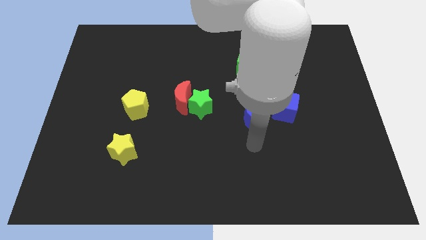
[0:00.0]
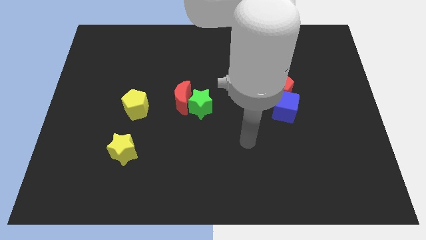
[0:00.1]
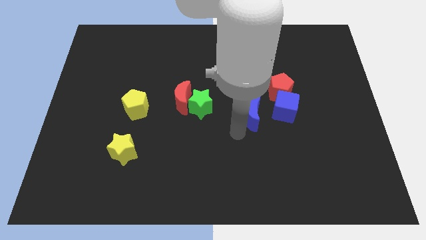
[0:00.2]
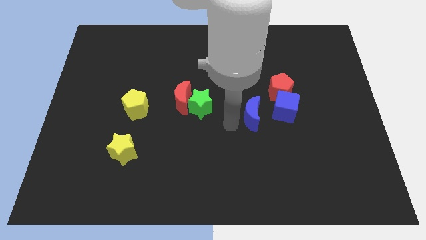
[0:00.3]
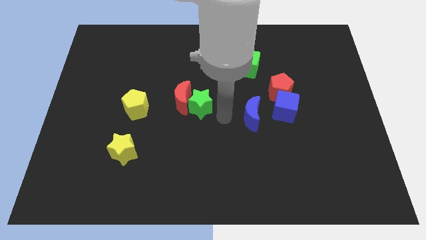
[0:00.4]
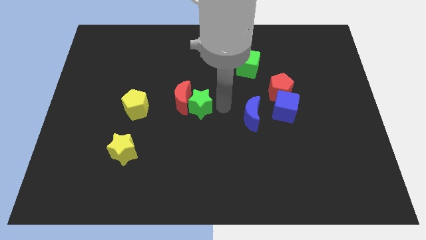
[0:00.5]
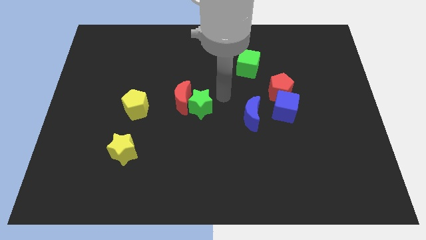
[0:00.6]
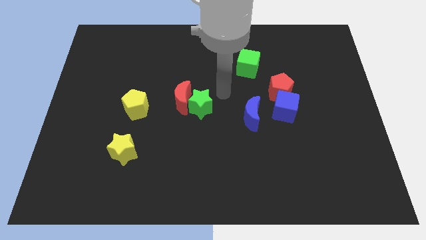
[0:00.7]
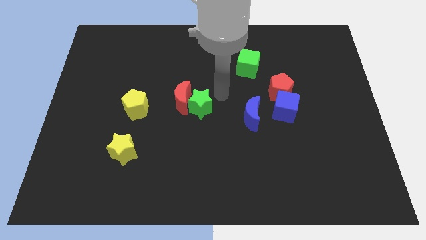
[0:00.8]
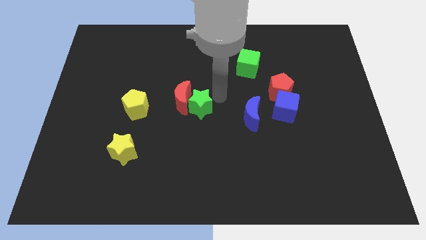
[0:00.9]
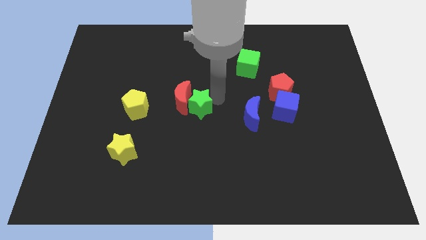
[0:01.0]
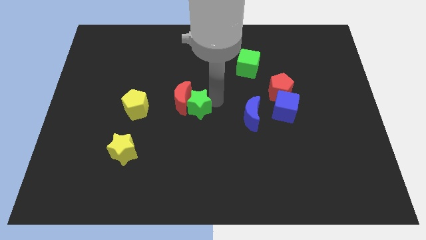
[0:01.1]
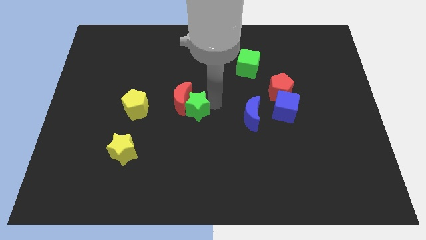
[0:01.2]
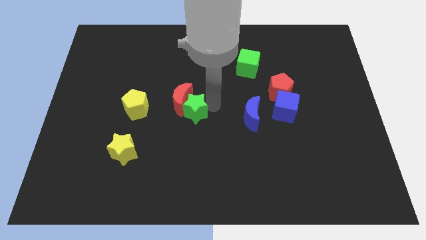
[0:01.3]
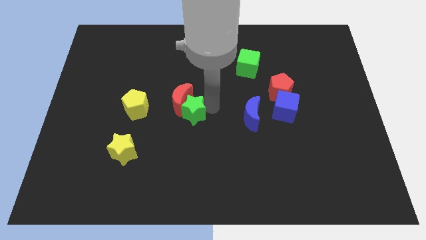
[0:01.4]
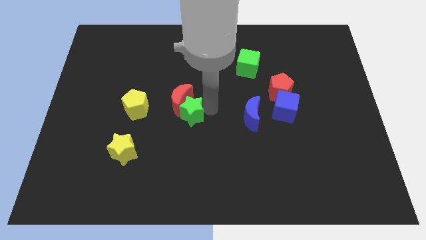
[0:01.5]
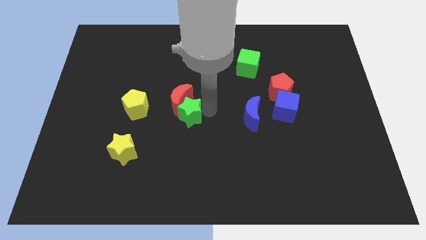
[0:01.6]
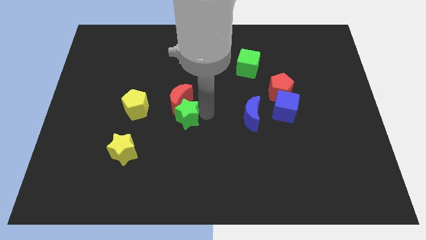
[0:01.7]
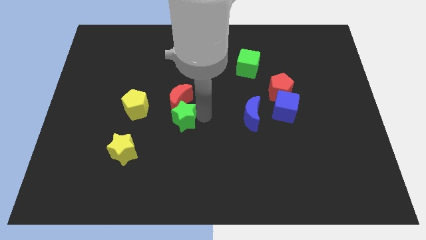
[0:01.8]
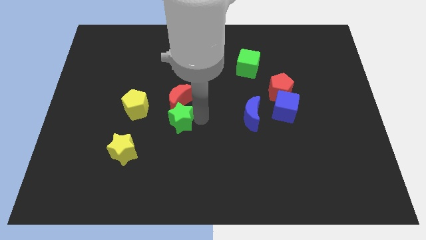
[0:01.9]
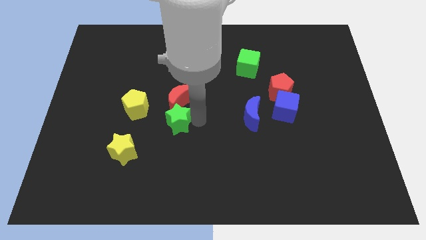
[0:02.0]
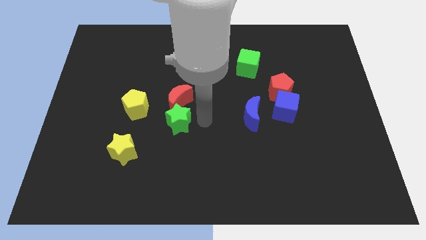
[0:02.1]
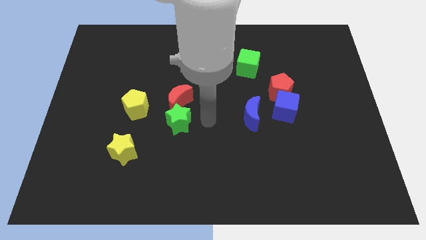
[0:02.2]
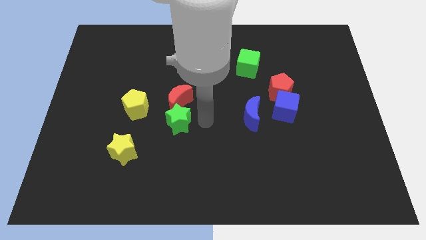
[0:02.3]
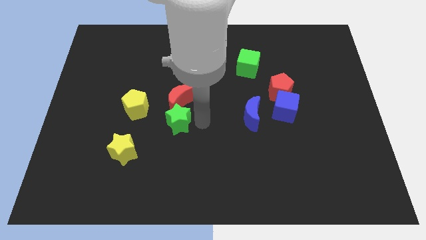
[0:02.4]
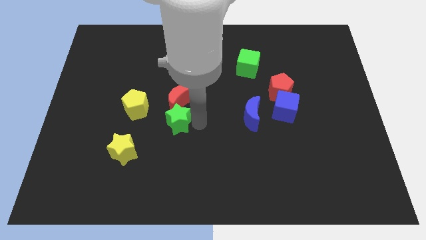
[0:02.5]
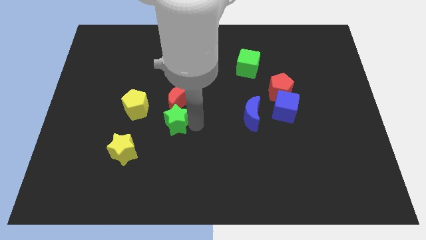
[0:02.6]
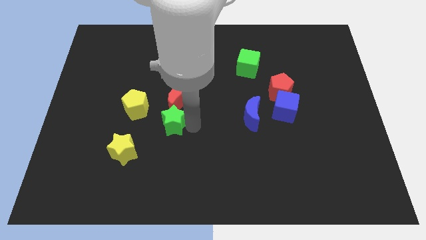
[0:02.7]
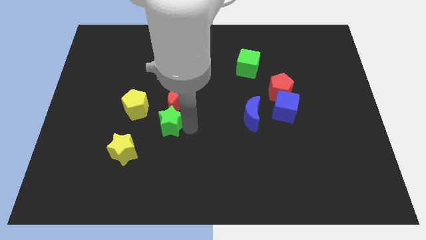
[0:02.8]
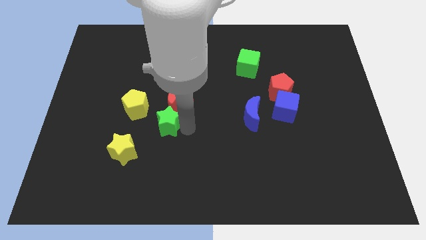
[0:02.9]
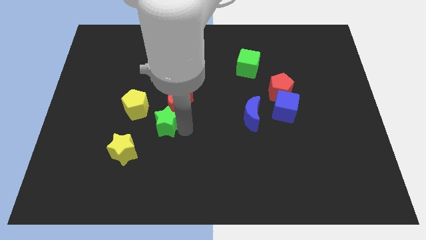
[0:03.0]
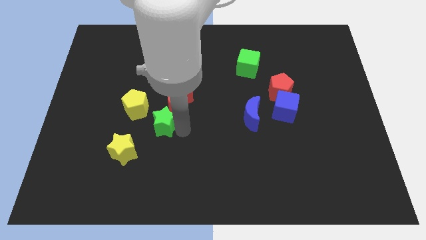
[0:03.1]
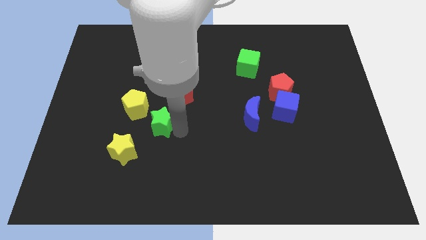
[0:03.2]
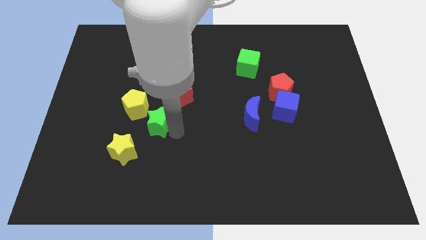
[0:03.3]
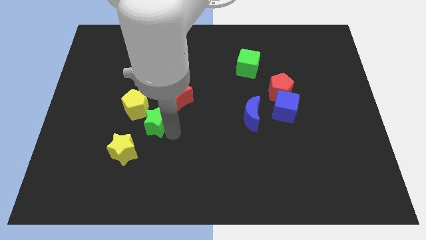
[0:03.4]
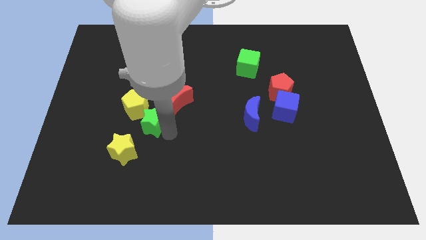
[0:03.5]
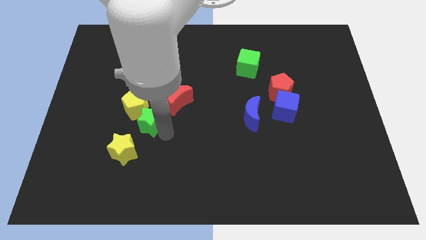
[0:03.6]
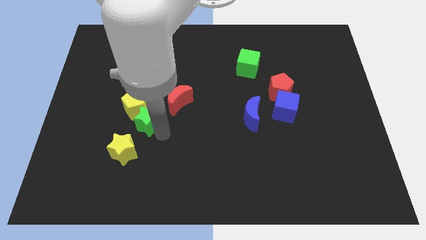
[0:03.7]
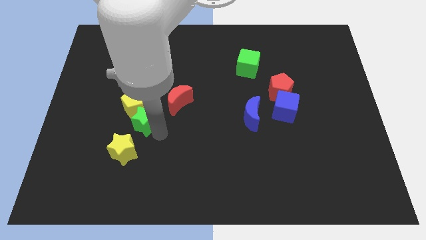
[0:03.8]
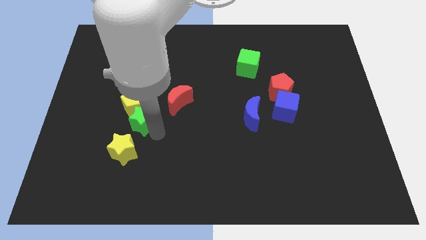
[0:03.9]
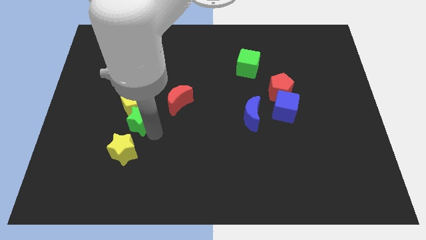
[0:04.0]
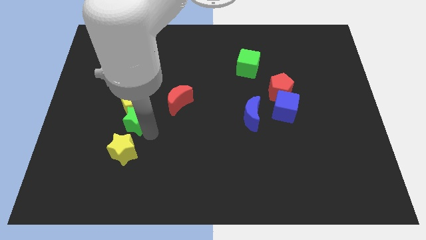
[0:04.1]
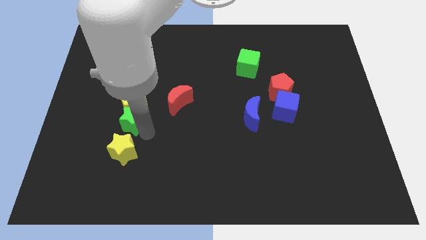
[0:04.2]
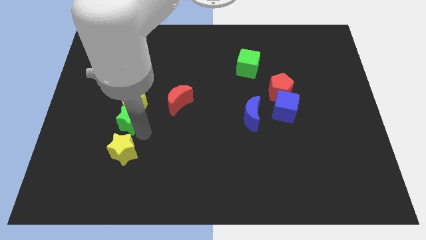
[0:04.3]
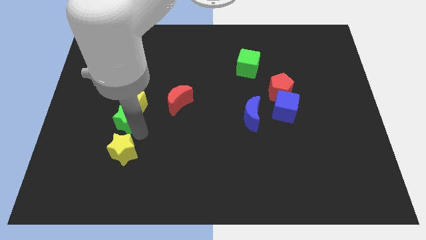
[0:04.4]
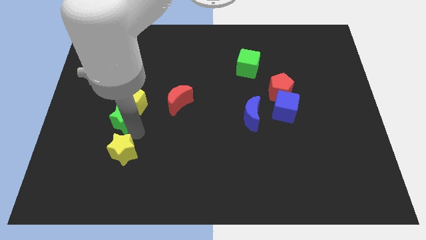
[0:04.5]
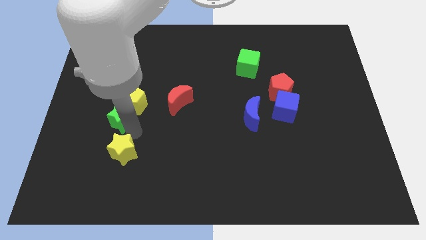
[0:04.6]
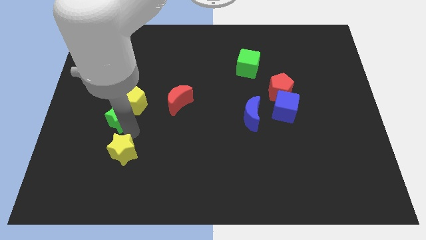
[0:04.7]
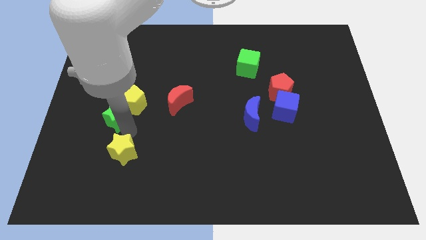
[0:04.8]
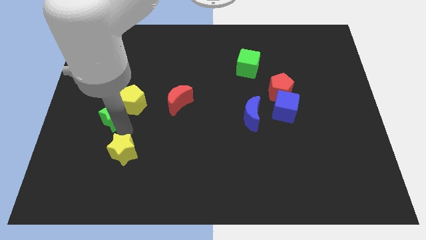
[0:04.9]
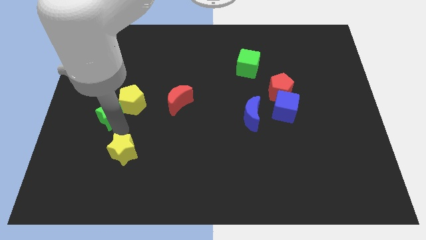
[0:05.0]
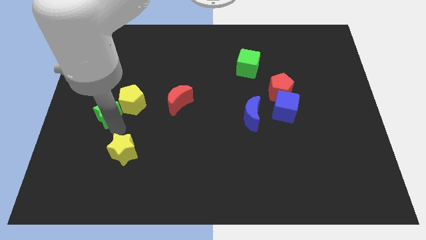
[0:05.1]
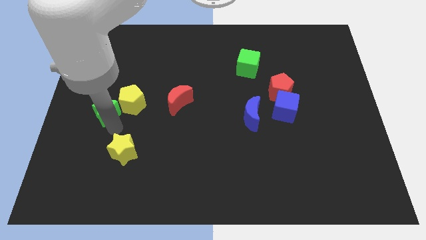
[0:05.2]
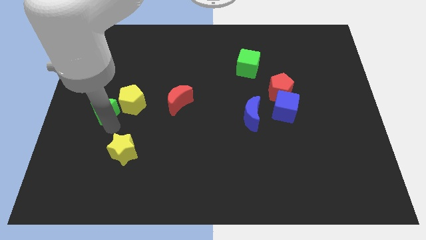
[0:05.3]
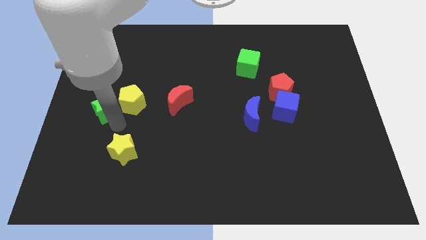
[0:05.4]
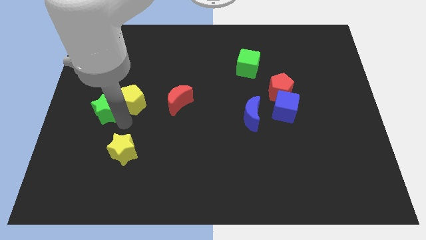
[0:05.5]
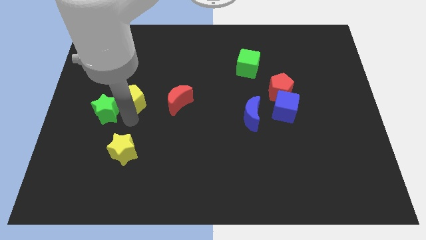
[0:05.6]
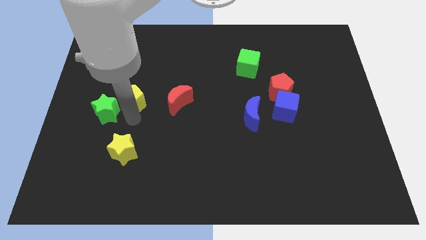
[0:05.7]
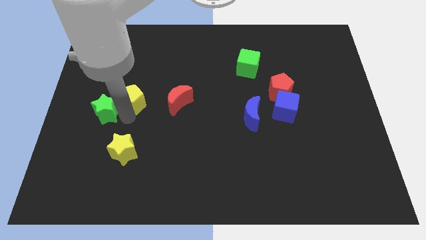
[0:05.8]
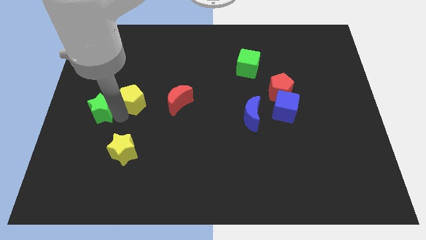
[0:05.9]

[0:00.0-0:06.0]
put the green star to the left side

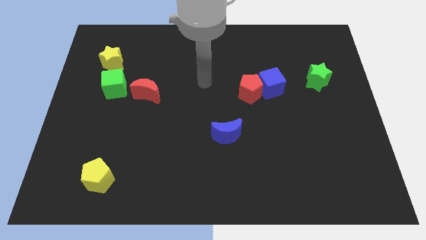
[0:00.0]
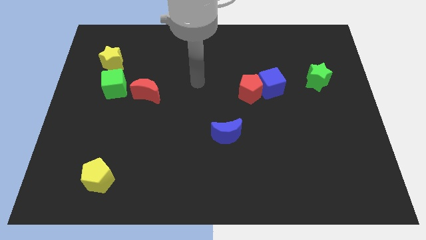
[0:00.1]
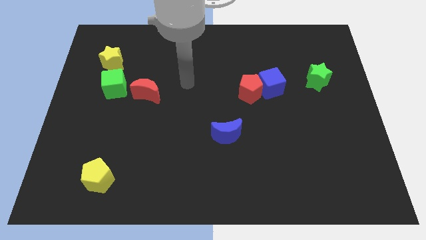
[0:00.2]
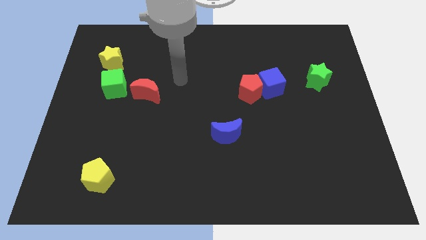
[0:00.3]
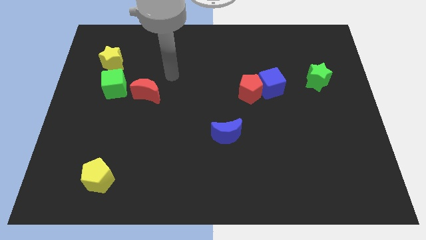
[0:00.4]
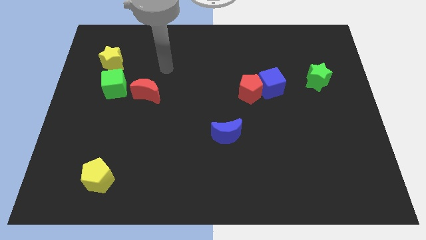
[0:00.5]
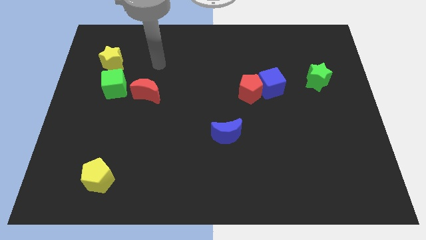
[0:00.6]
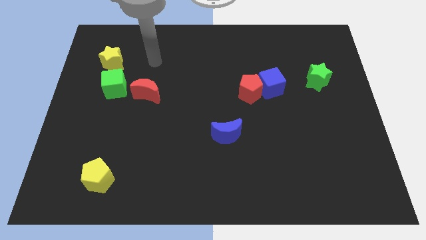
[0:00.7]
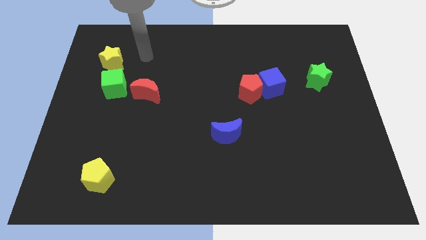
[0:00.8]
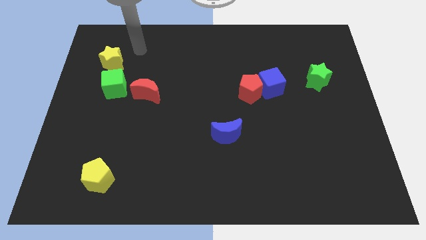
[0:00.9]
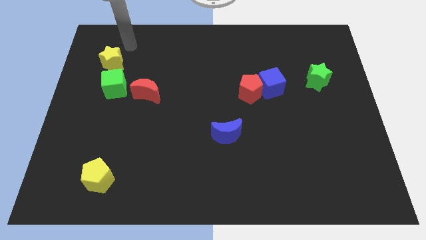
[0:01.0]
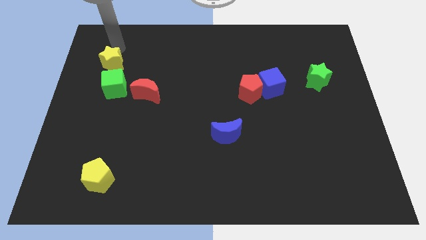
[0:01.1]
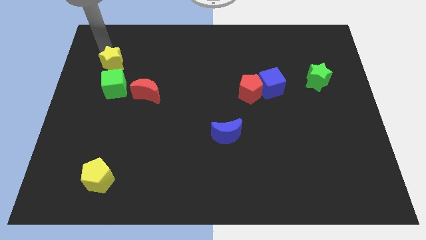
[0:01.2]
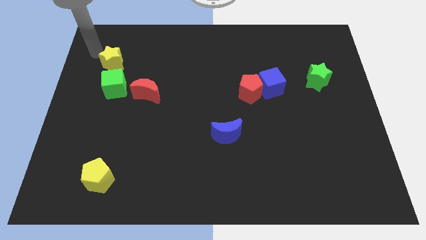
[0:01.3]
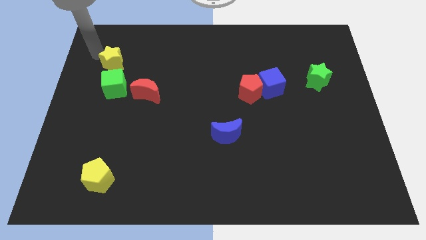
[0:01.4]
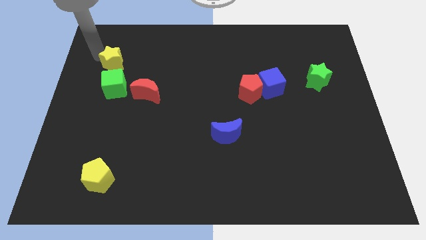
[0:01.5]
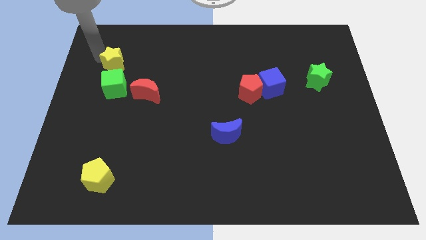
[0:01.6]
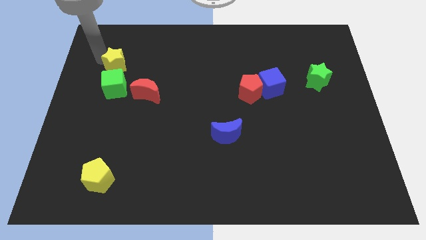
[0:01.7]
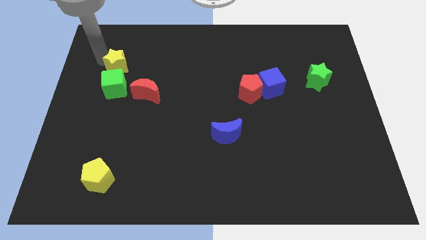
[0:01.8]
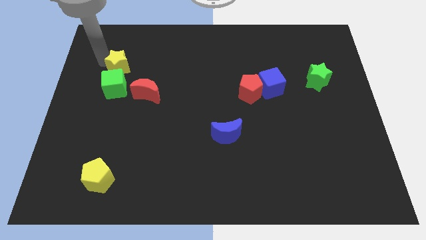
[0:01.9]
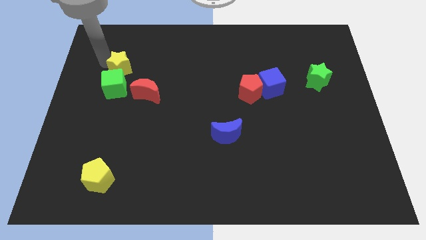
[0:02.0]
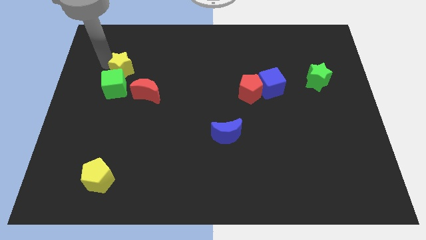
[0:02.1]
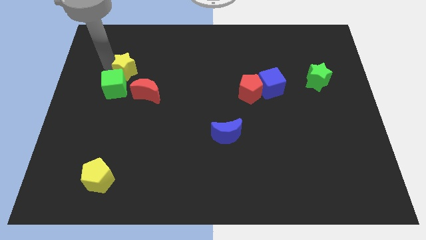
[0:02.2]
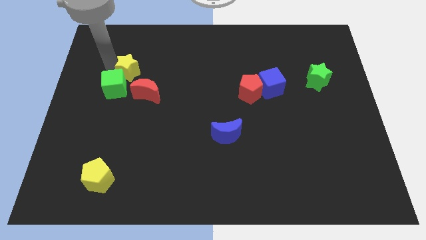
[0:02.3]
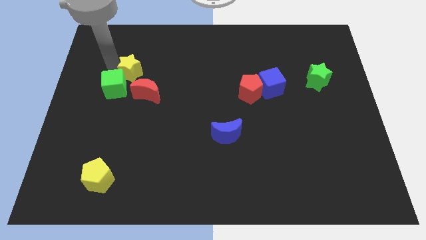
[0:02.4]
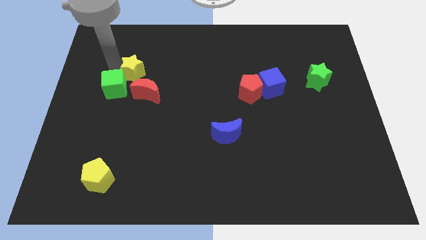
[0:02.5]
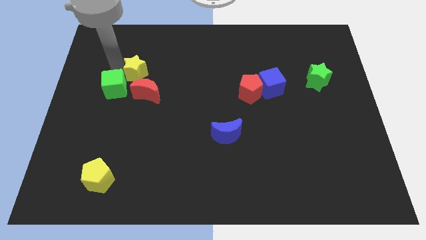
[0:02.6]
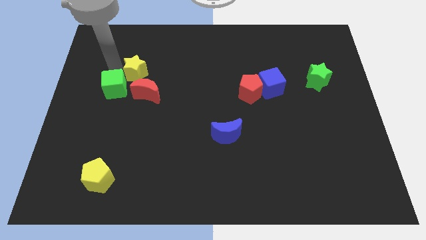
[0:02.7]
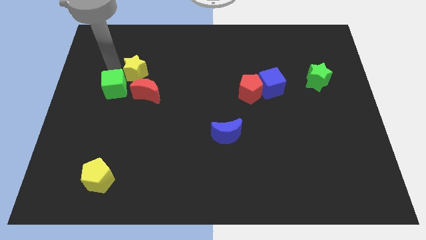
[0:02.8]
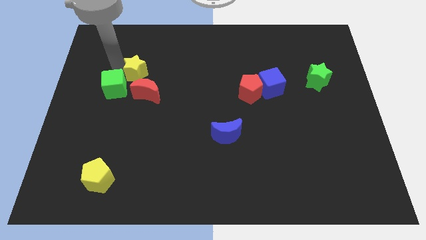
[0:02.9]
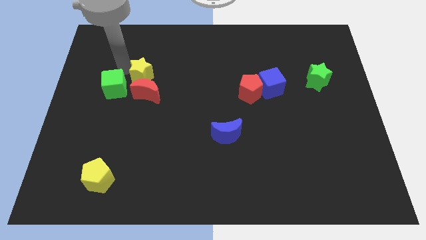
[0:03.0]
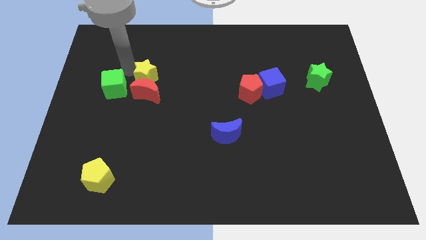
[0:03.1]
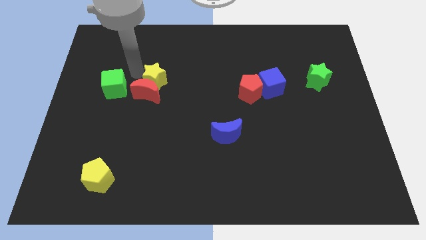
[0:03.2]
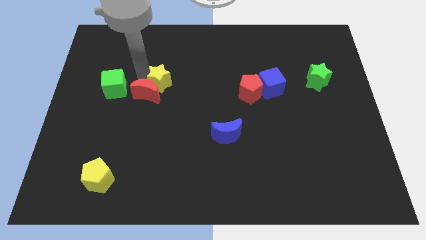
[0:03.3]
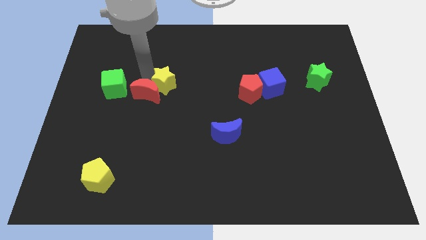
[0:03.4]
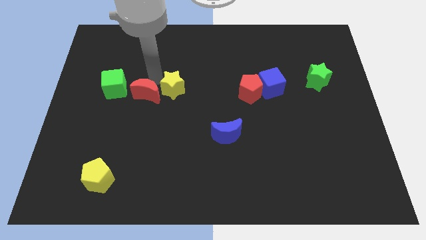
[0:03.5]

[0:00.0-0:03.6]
push the yellow star to the middle of the board
